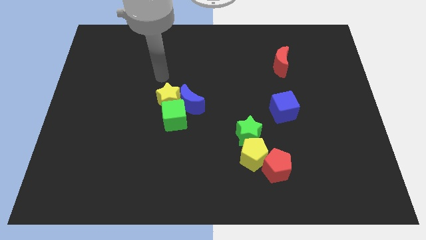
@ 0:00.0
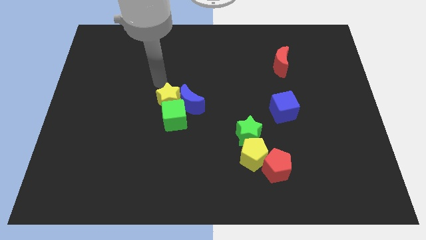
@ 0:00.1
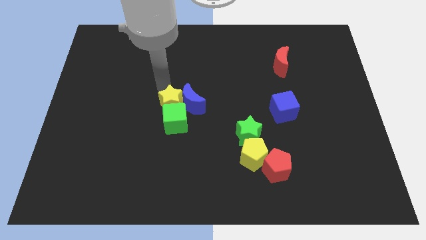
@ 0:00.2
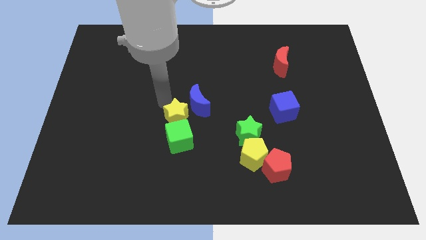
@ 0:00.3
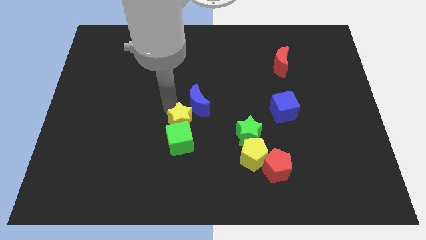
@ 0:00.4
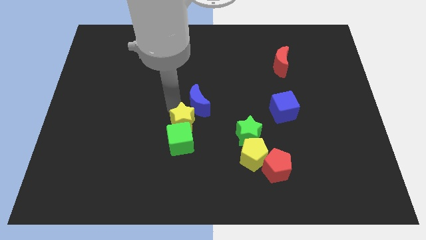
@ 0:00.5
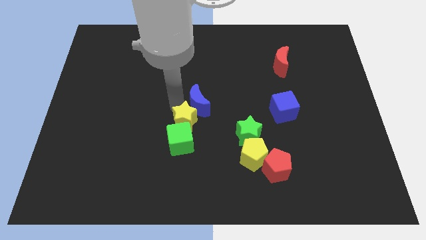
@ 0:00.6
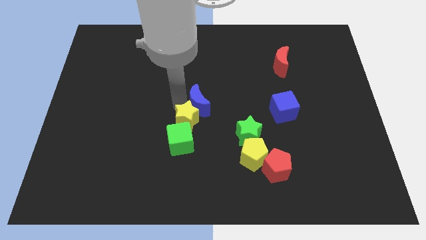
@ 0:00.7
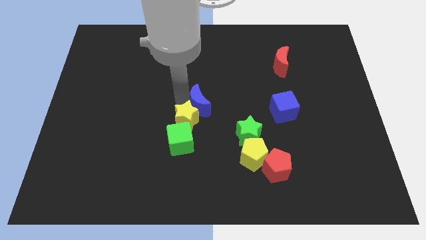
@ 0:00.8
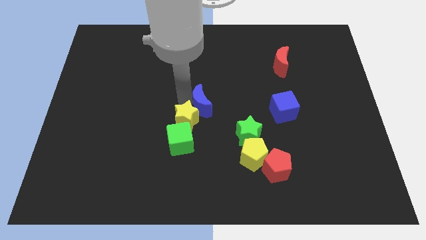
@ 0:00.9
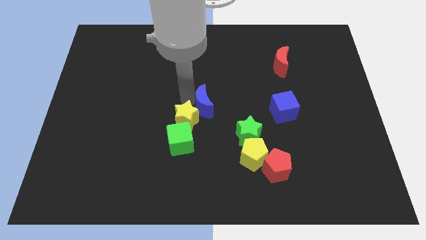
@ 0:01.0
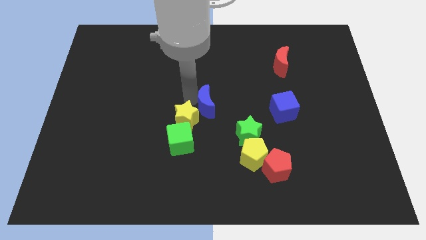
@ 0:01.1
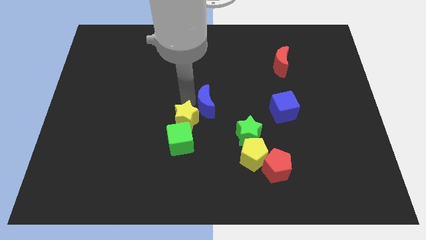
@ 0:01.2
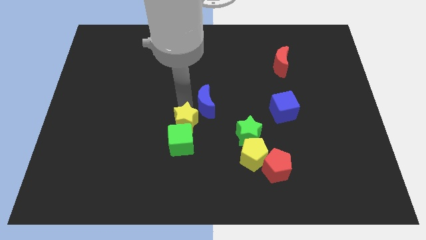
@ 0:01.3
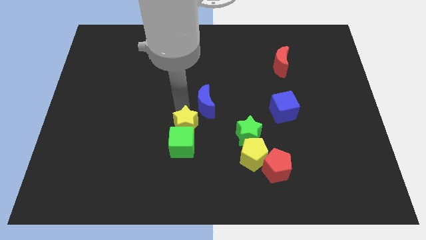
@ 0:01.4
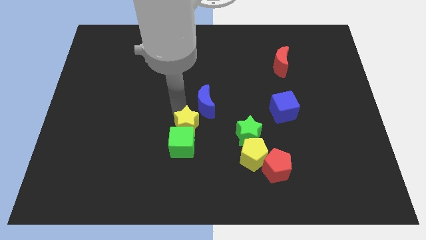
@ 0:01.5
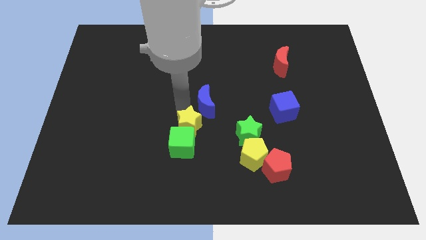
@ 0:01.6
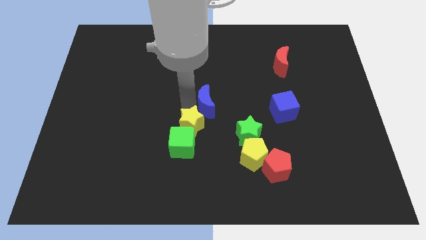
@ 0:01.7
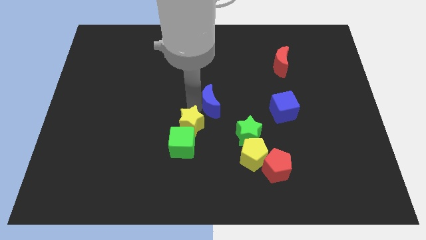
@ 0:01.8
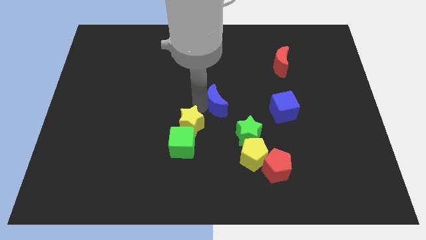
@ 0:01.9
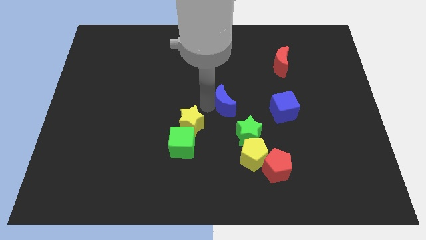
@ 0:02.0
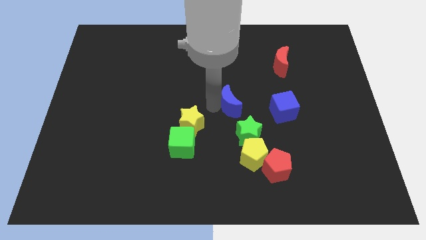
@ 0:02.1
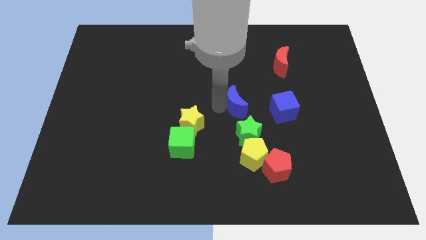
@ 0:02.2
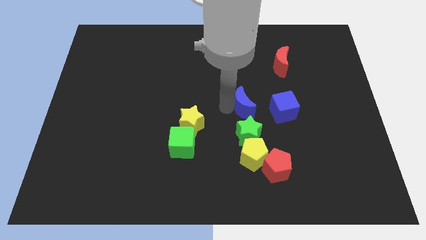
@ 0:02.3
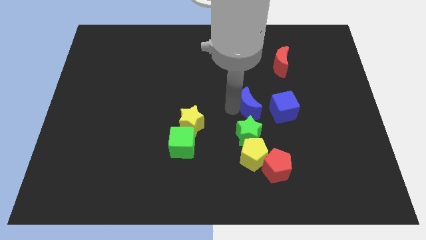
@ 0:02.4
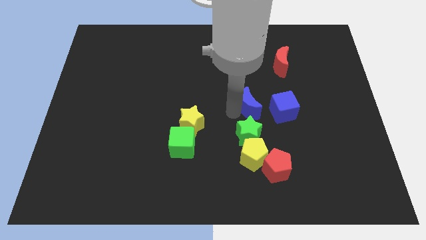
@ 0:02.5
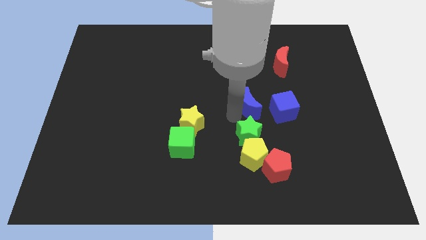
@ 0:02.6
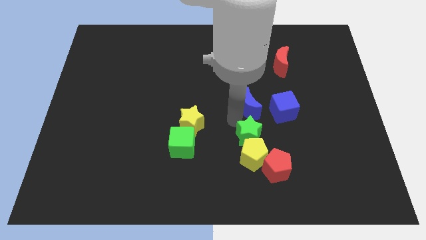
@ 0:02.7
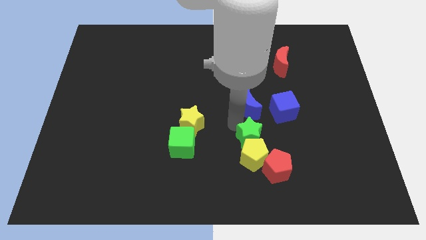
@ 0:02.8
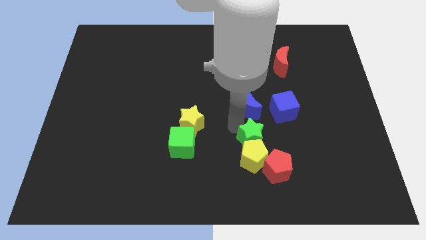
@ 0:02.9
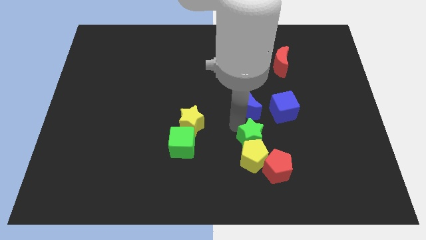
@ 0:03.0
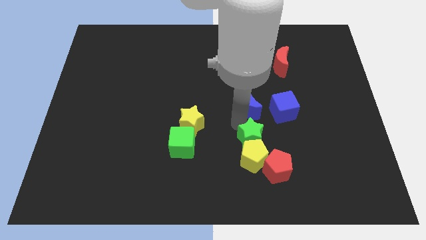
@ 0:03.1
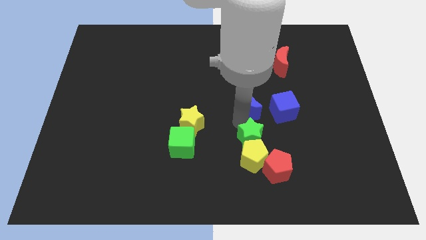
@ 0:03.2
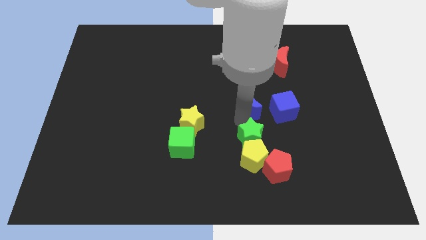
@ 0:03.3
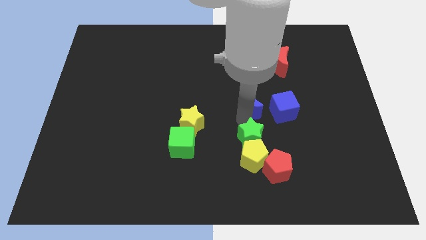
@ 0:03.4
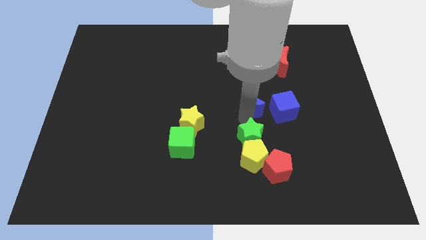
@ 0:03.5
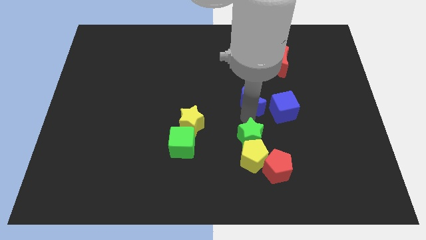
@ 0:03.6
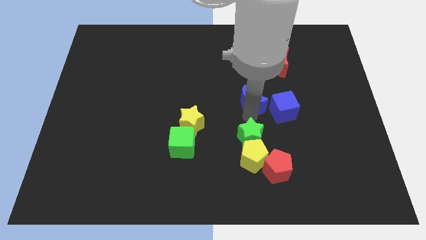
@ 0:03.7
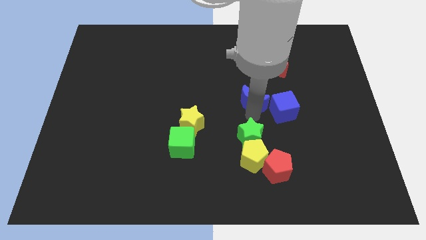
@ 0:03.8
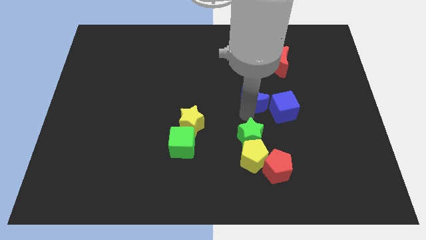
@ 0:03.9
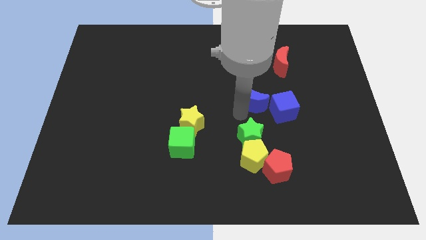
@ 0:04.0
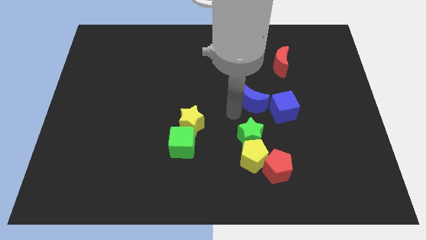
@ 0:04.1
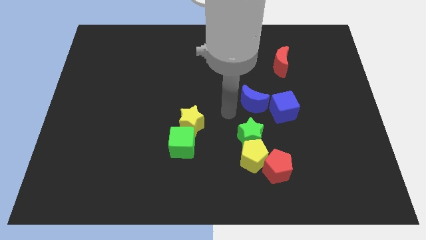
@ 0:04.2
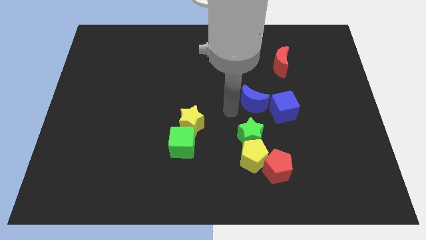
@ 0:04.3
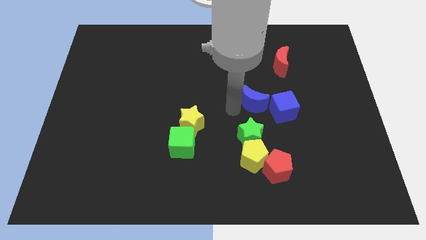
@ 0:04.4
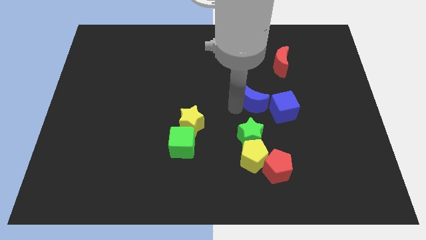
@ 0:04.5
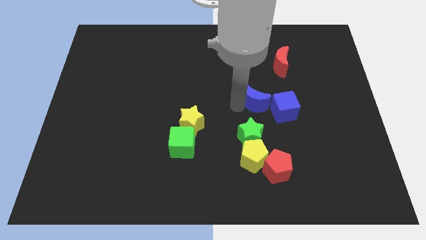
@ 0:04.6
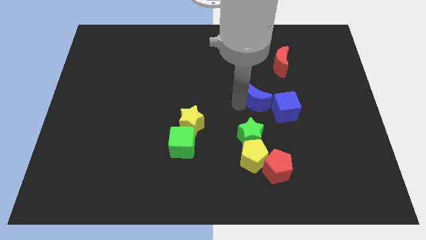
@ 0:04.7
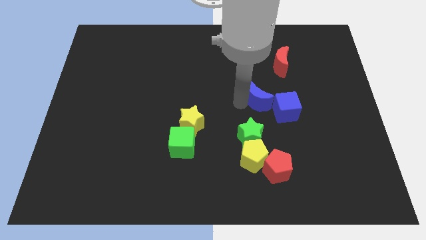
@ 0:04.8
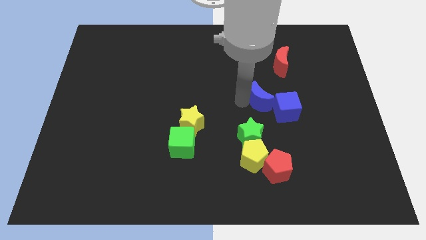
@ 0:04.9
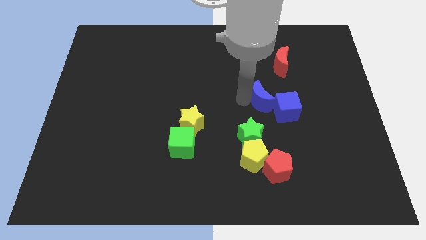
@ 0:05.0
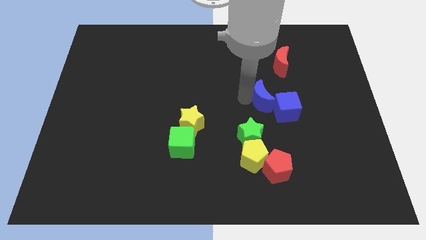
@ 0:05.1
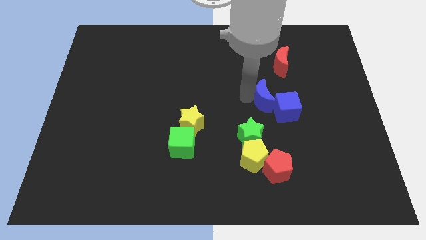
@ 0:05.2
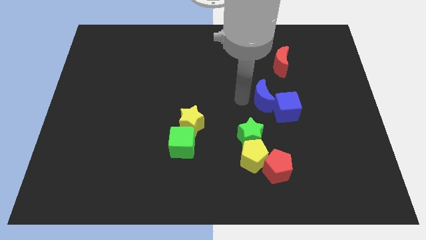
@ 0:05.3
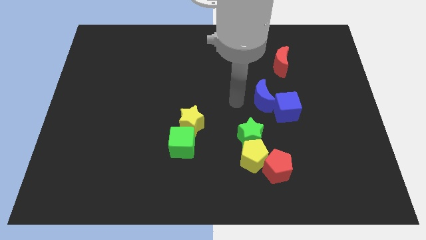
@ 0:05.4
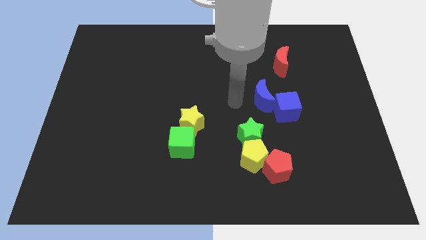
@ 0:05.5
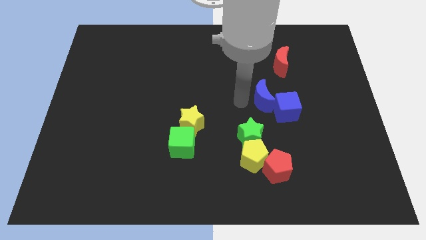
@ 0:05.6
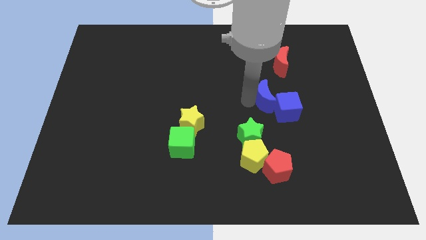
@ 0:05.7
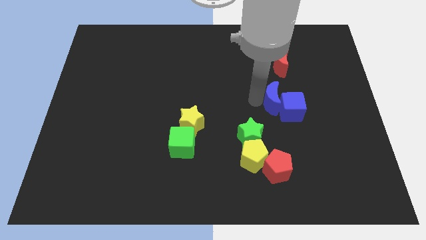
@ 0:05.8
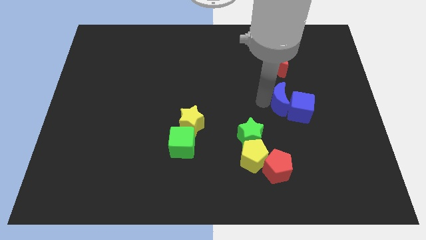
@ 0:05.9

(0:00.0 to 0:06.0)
slide the blue moon to the right

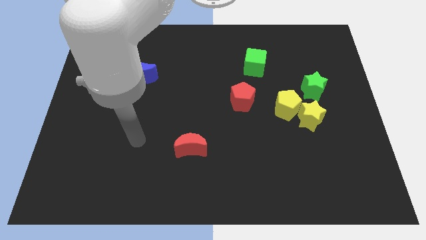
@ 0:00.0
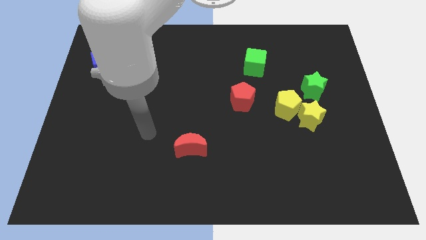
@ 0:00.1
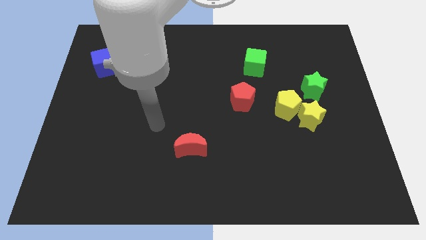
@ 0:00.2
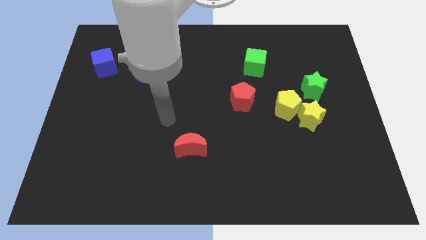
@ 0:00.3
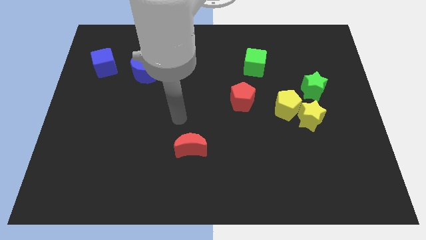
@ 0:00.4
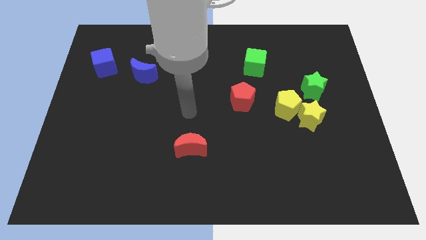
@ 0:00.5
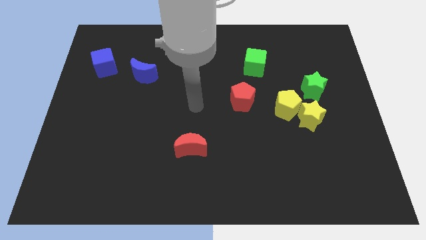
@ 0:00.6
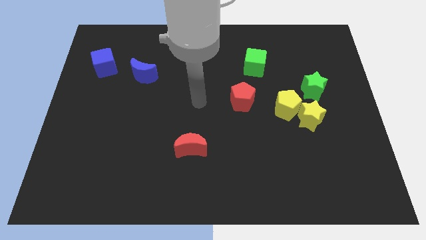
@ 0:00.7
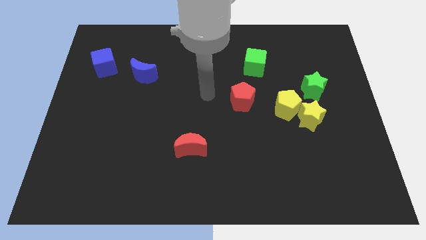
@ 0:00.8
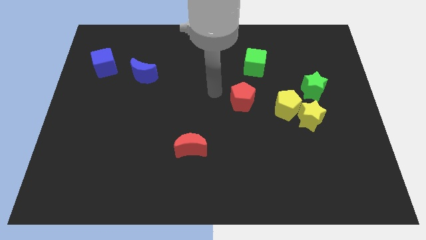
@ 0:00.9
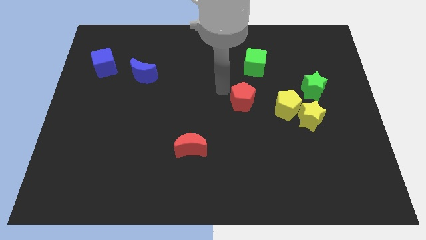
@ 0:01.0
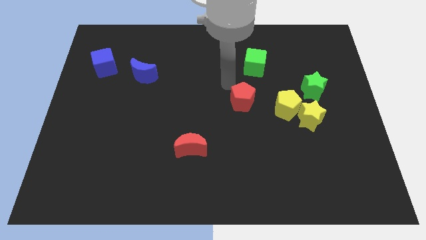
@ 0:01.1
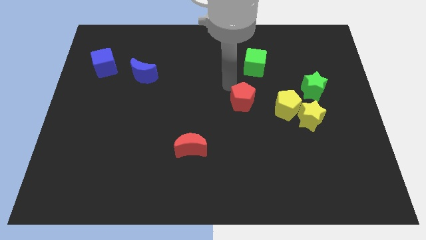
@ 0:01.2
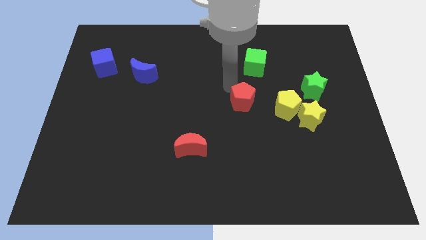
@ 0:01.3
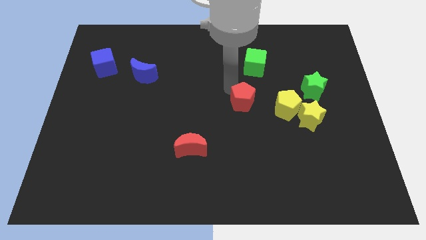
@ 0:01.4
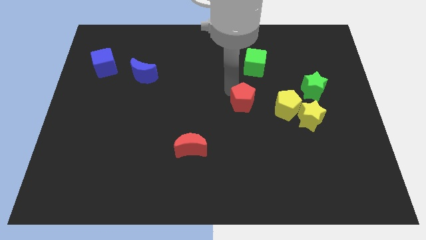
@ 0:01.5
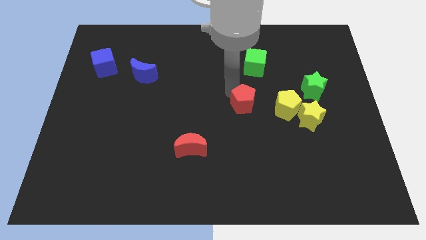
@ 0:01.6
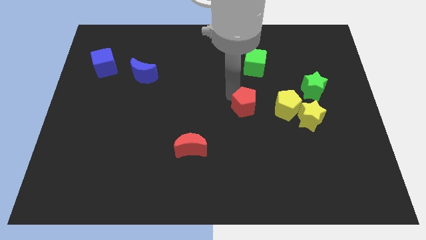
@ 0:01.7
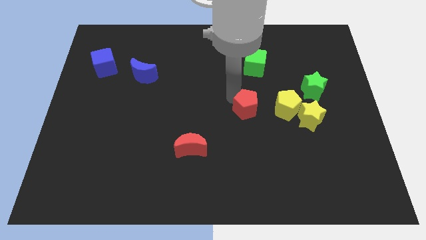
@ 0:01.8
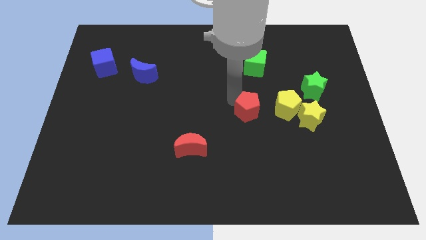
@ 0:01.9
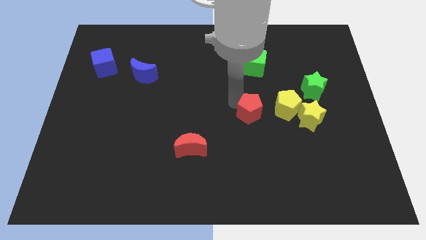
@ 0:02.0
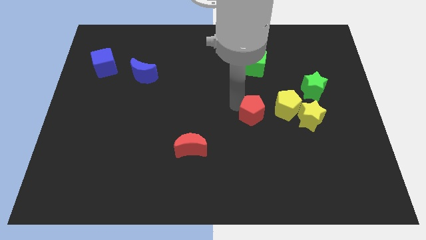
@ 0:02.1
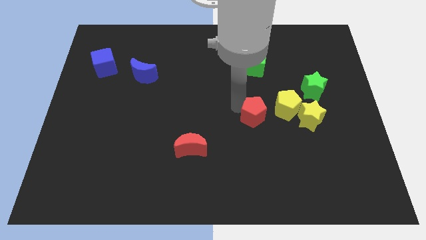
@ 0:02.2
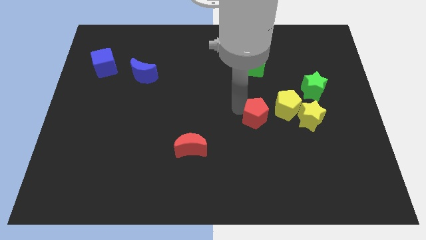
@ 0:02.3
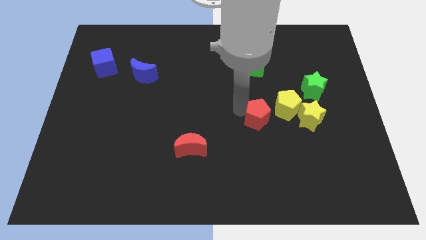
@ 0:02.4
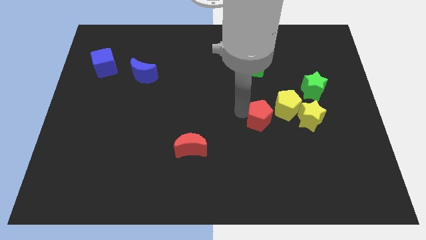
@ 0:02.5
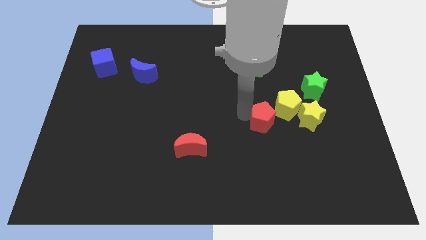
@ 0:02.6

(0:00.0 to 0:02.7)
move the red pentagon a little diagonally down and to the right
